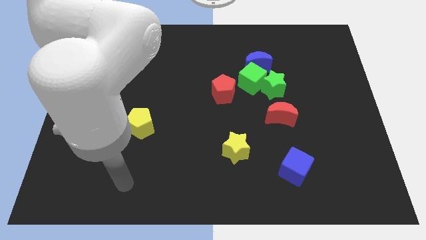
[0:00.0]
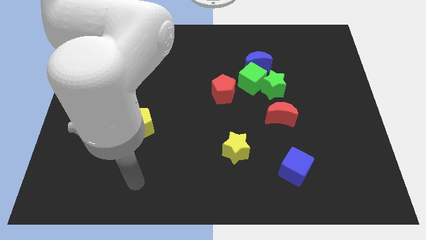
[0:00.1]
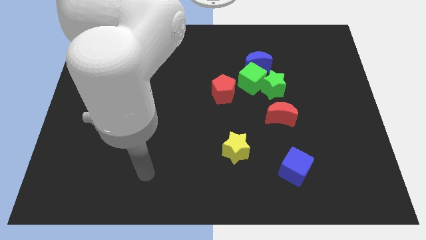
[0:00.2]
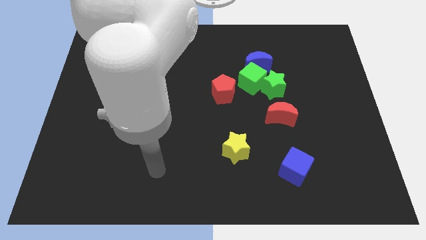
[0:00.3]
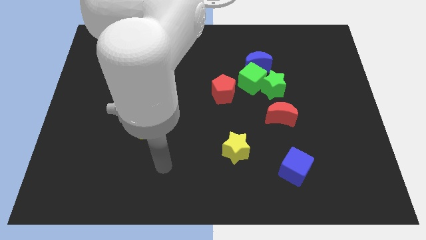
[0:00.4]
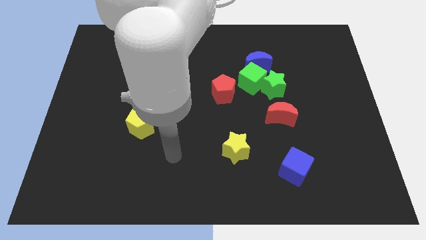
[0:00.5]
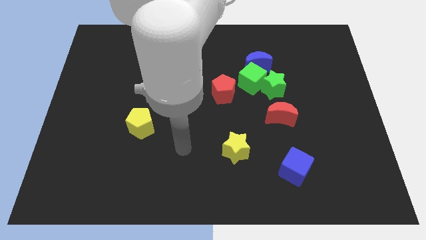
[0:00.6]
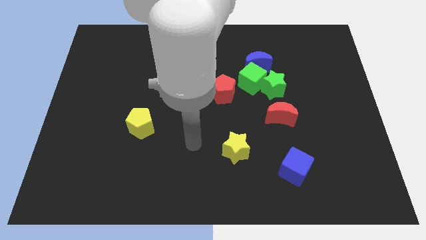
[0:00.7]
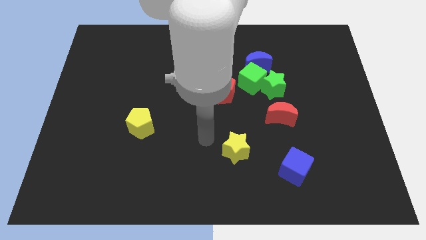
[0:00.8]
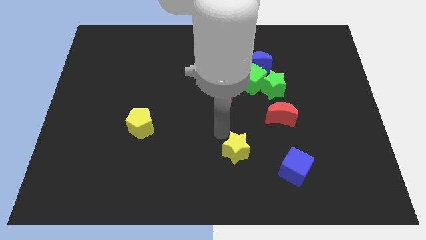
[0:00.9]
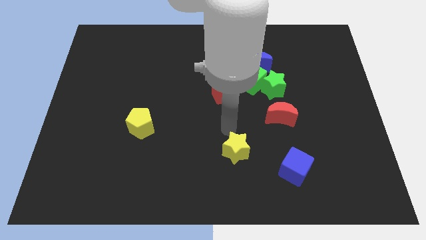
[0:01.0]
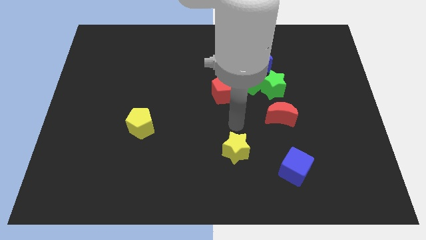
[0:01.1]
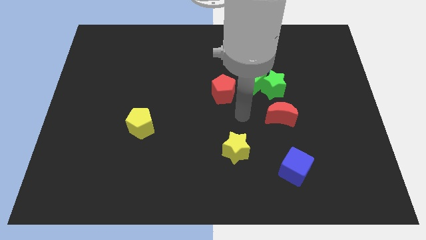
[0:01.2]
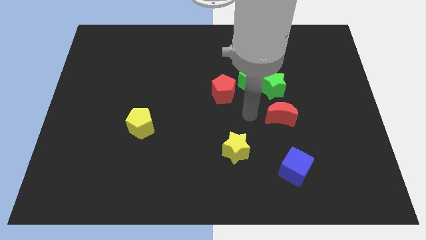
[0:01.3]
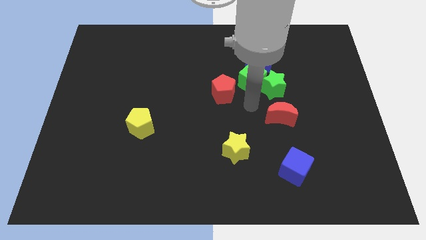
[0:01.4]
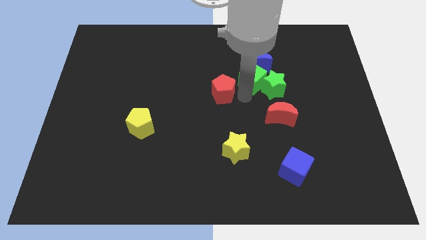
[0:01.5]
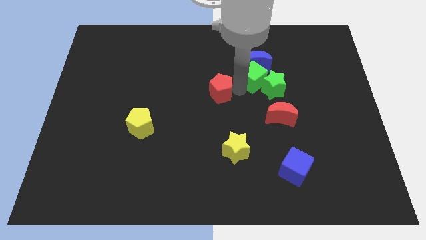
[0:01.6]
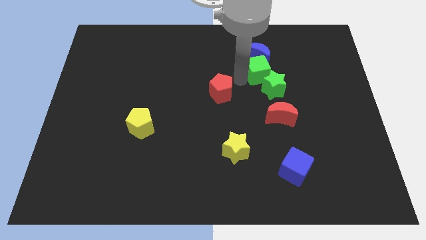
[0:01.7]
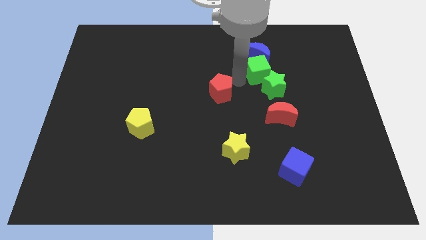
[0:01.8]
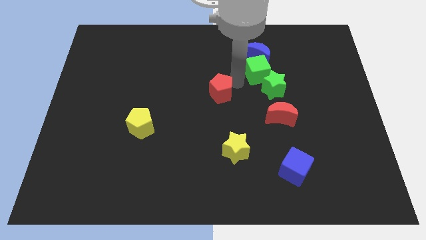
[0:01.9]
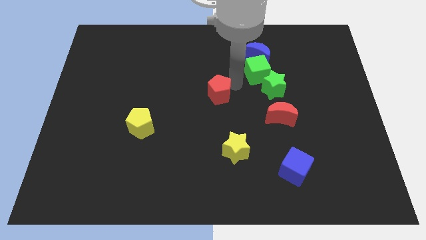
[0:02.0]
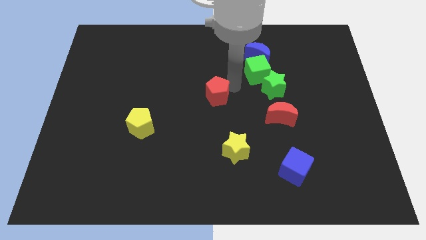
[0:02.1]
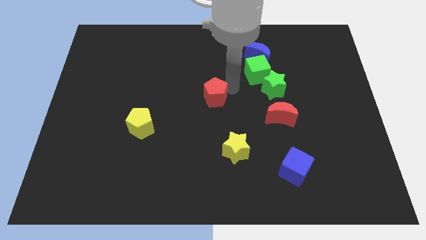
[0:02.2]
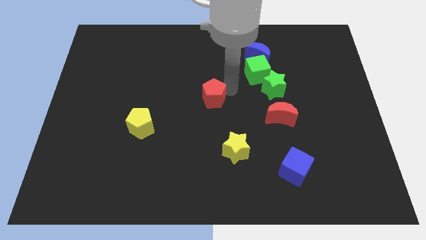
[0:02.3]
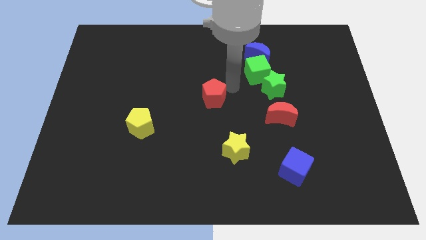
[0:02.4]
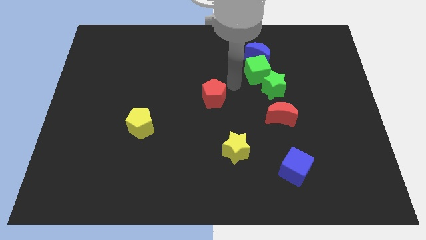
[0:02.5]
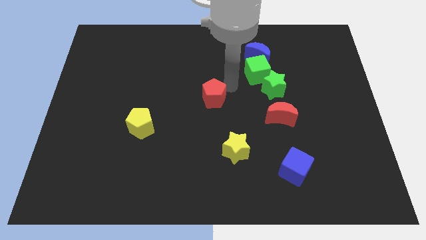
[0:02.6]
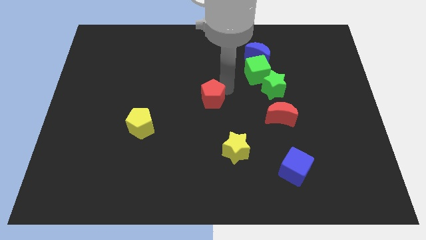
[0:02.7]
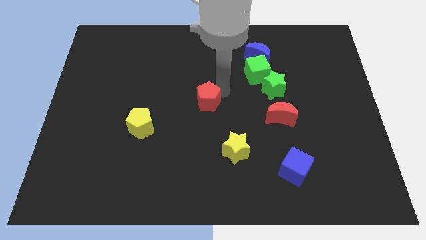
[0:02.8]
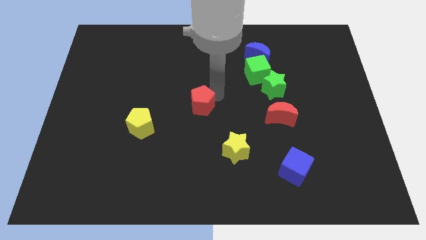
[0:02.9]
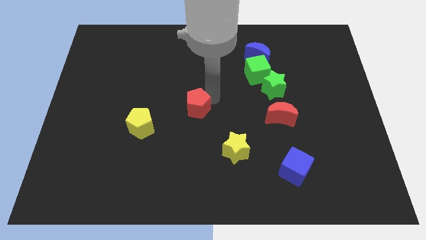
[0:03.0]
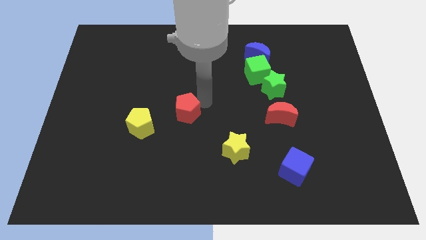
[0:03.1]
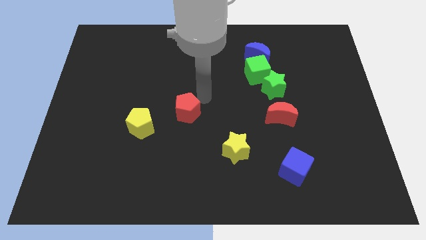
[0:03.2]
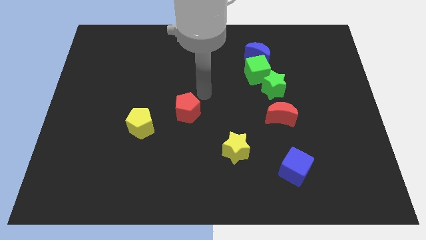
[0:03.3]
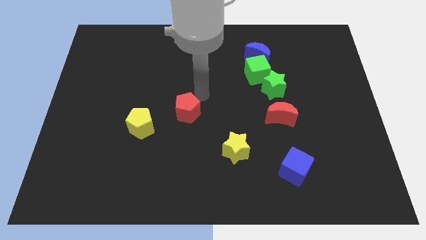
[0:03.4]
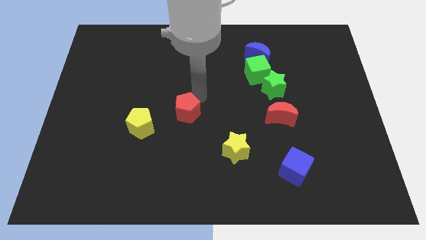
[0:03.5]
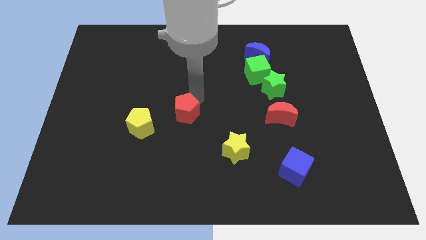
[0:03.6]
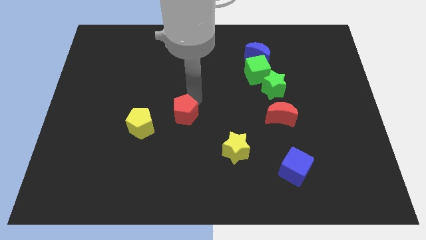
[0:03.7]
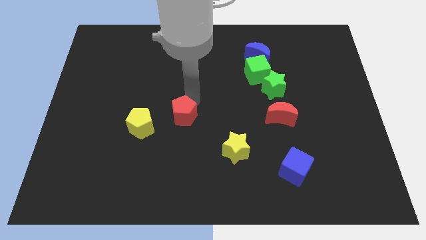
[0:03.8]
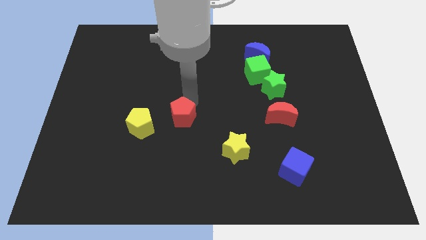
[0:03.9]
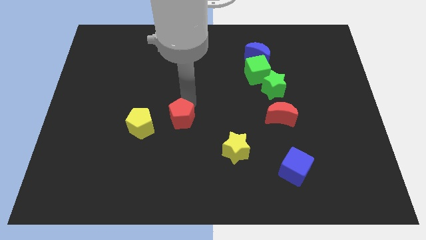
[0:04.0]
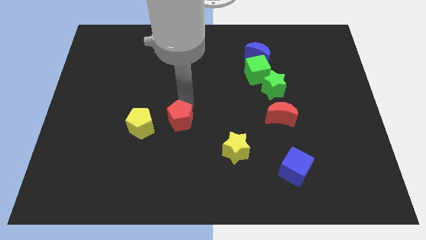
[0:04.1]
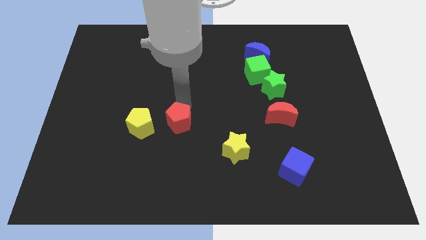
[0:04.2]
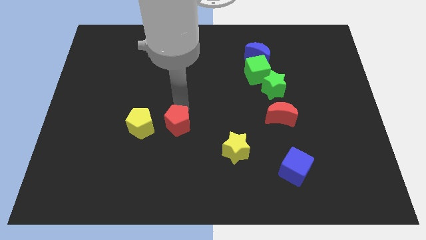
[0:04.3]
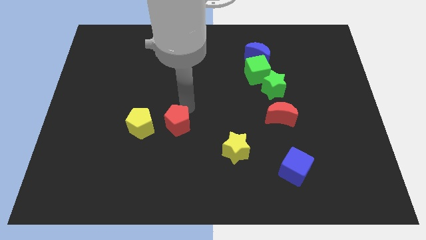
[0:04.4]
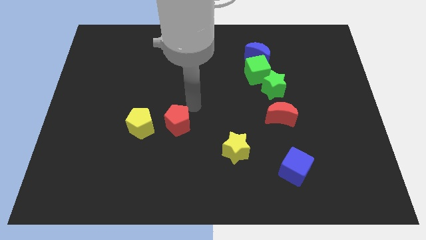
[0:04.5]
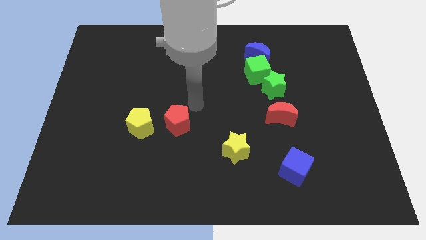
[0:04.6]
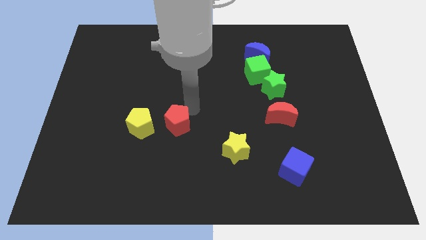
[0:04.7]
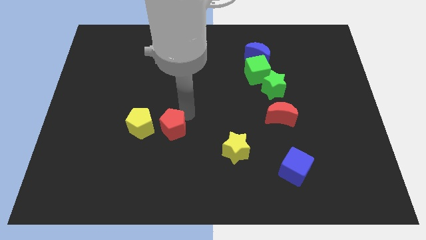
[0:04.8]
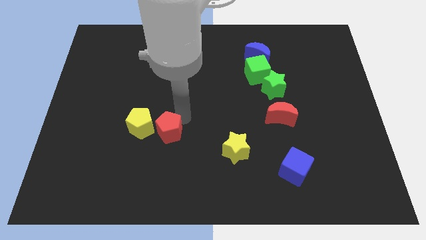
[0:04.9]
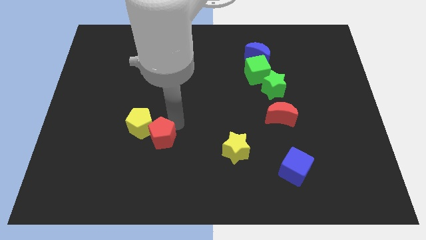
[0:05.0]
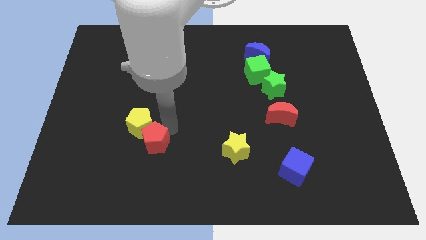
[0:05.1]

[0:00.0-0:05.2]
push the red pentagon downwards and to the left diagonally

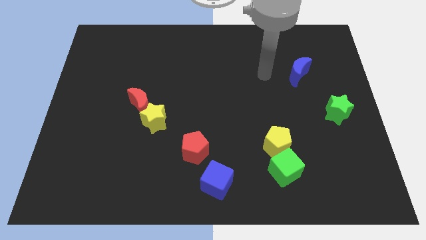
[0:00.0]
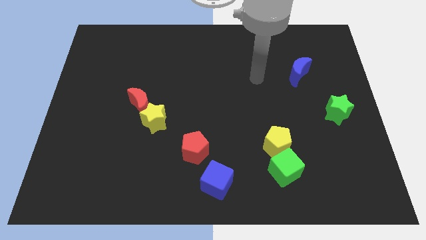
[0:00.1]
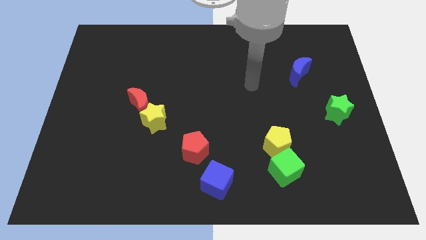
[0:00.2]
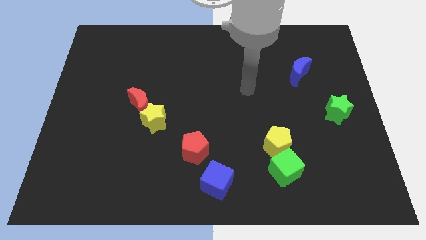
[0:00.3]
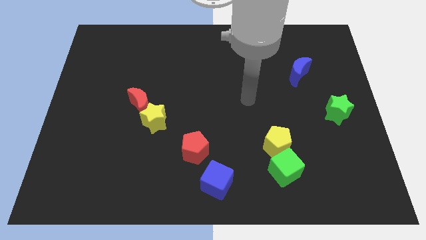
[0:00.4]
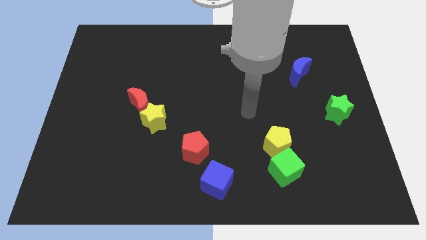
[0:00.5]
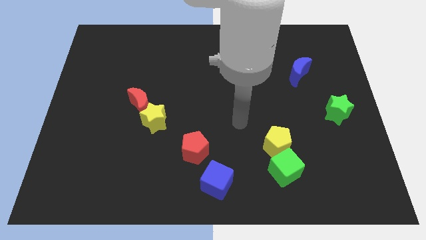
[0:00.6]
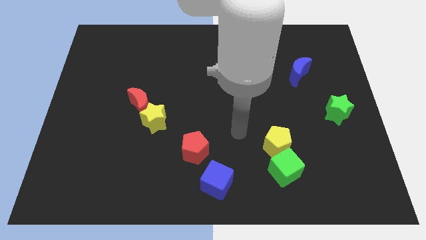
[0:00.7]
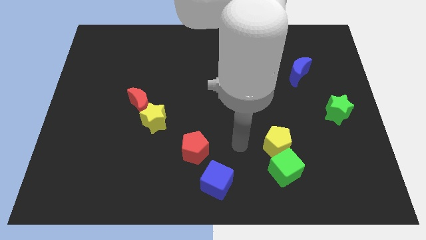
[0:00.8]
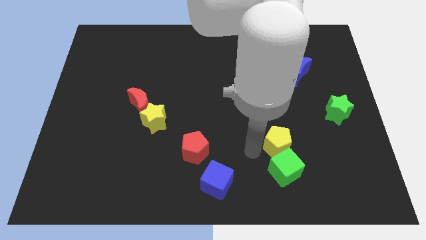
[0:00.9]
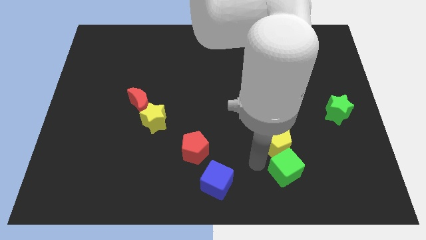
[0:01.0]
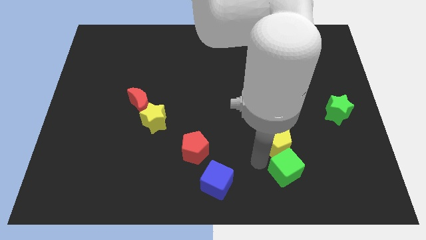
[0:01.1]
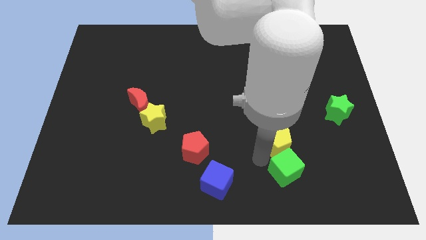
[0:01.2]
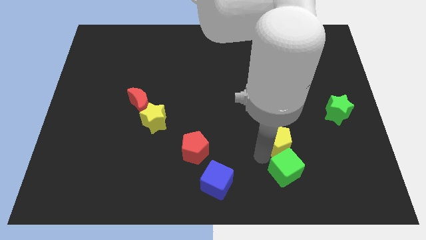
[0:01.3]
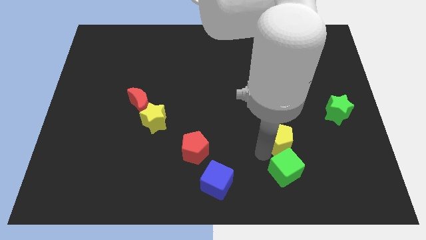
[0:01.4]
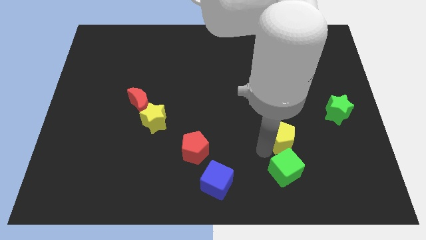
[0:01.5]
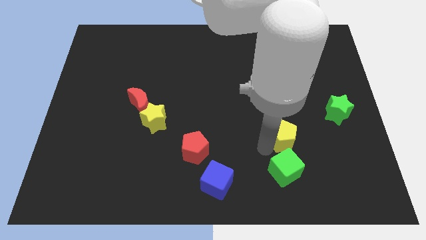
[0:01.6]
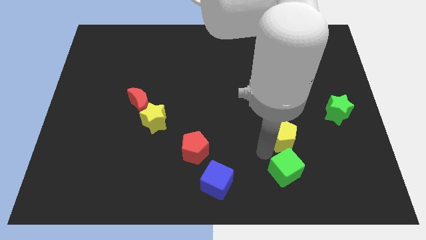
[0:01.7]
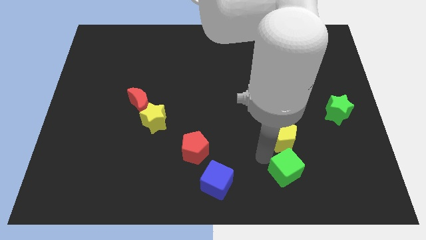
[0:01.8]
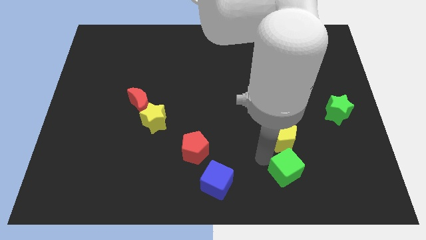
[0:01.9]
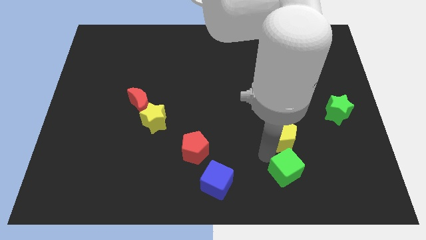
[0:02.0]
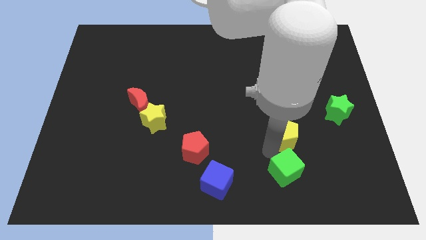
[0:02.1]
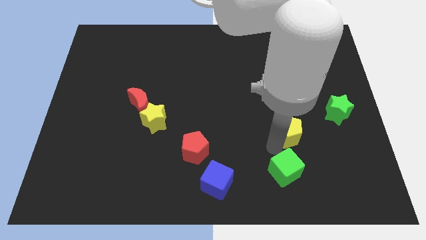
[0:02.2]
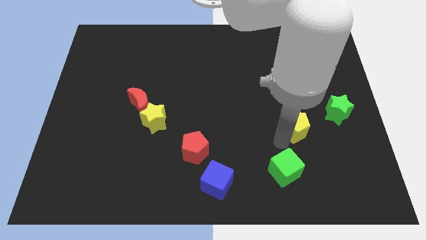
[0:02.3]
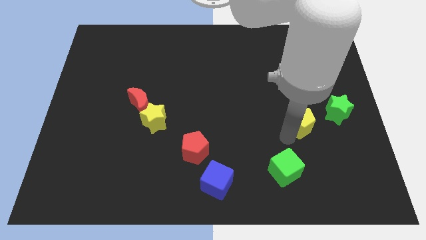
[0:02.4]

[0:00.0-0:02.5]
slide the yellow pentagon up and to the right a bit

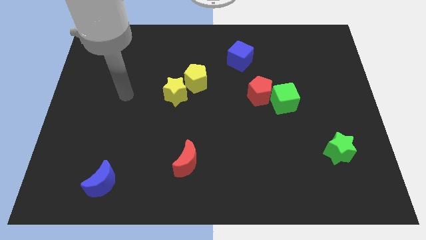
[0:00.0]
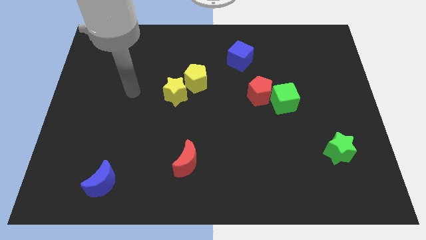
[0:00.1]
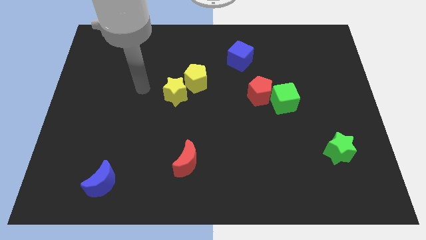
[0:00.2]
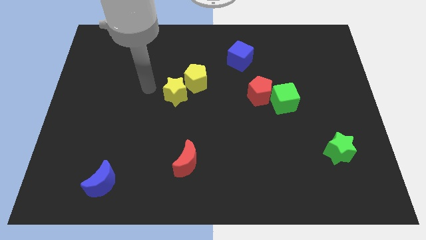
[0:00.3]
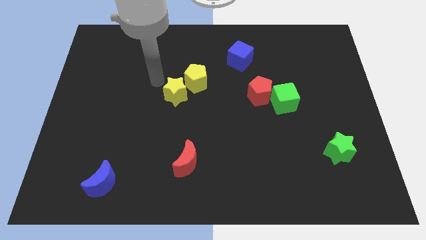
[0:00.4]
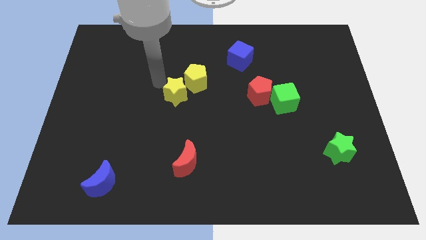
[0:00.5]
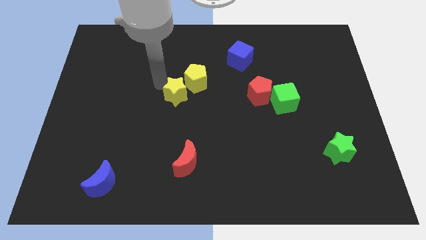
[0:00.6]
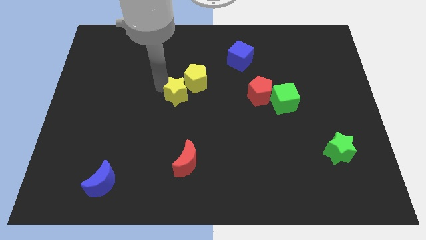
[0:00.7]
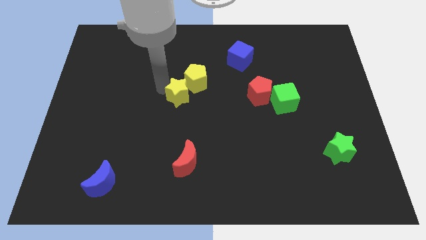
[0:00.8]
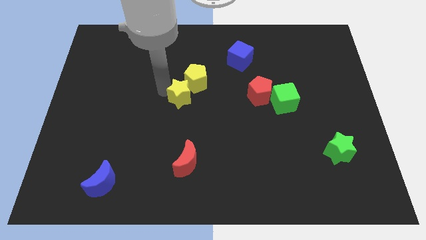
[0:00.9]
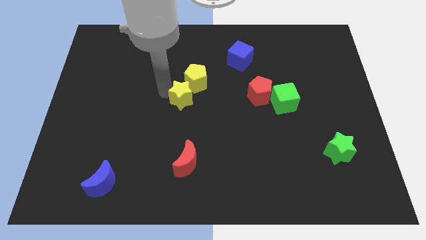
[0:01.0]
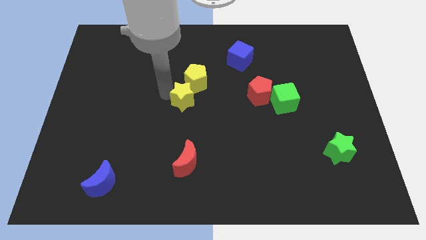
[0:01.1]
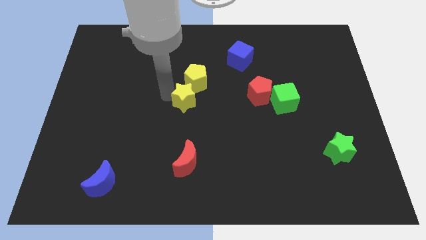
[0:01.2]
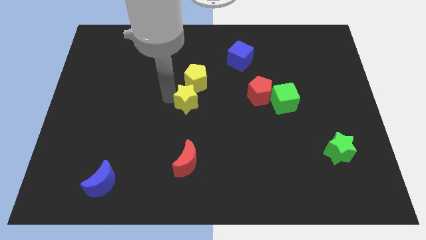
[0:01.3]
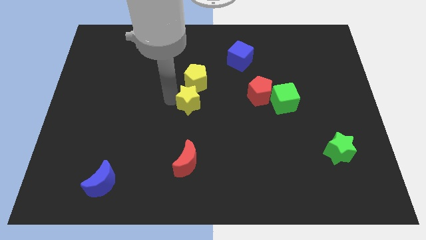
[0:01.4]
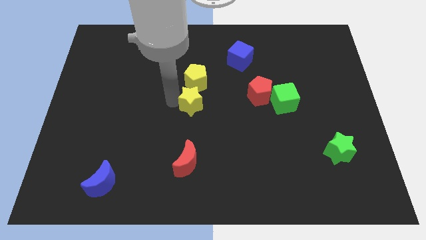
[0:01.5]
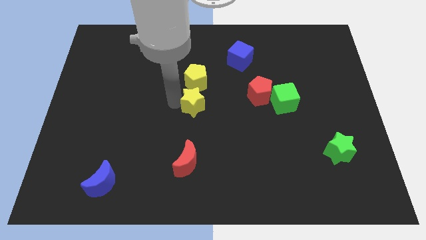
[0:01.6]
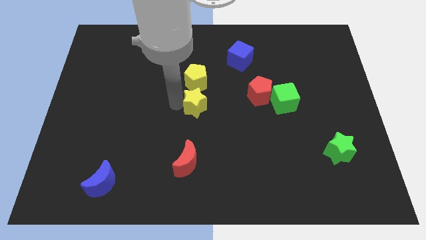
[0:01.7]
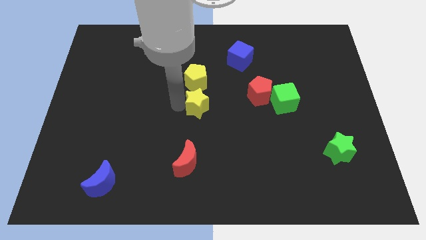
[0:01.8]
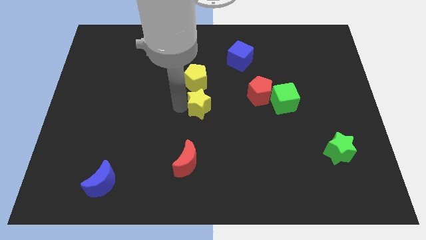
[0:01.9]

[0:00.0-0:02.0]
slide the yellow star somewhat diagonally downwards and right
